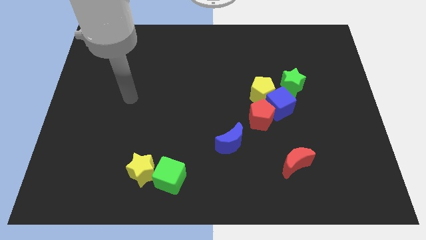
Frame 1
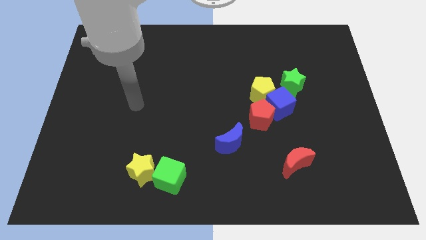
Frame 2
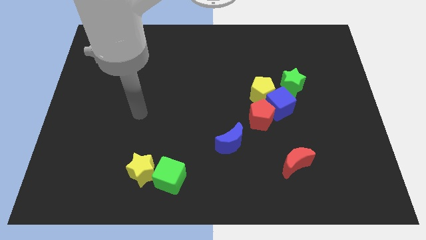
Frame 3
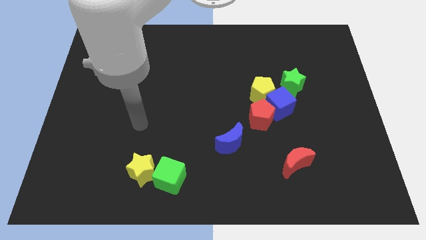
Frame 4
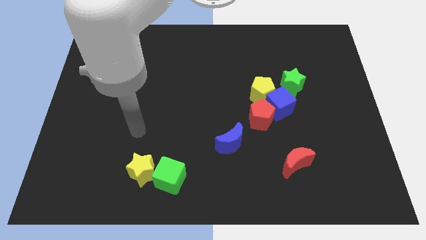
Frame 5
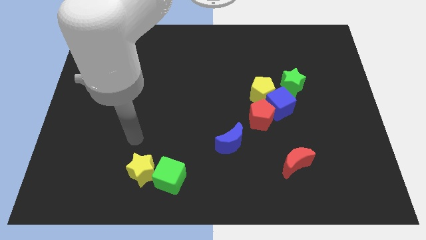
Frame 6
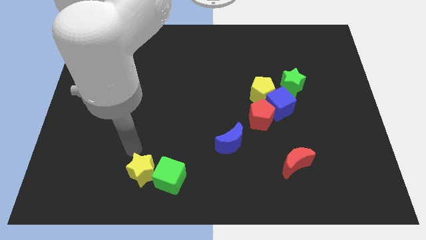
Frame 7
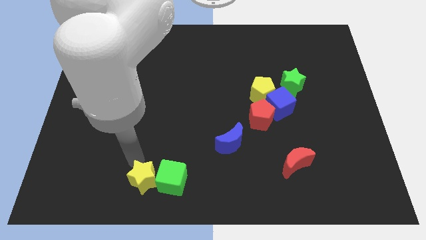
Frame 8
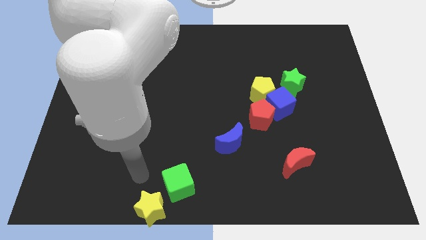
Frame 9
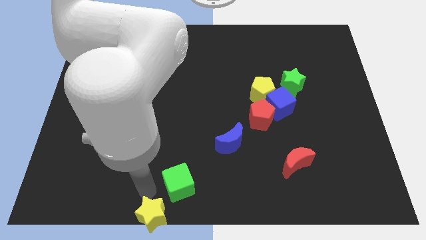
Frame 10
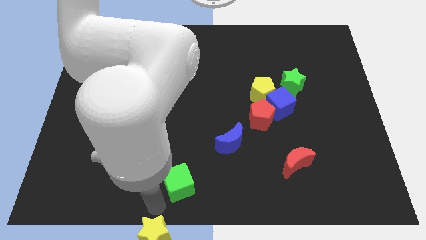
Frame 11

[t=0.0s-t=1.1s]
move the green cube away from the yellow star

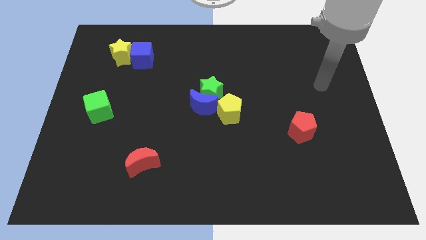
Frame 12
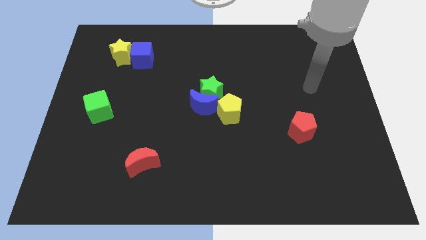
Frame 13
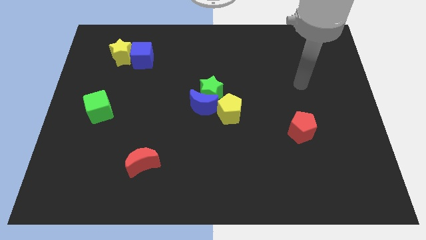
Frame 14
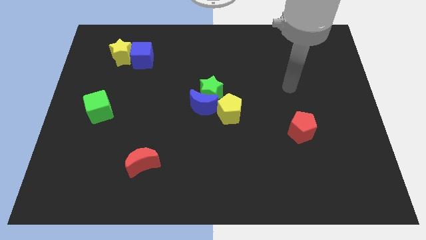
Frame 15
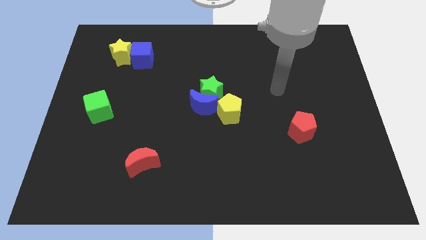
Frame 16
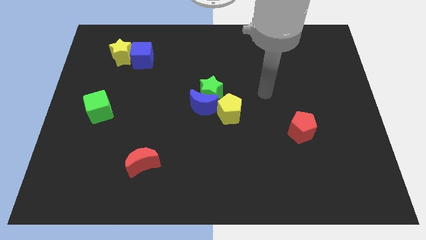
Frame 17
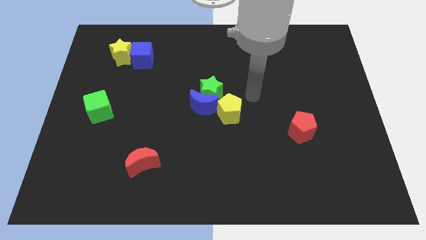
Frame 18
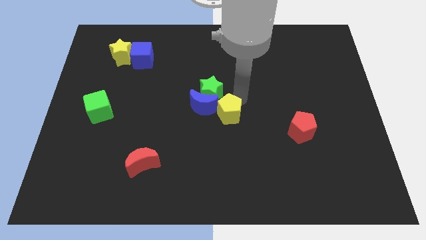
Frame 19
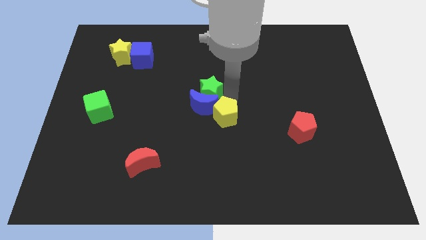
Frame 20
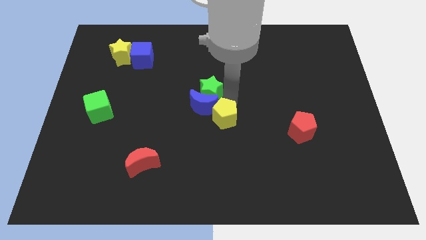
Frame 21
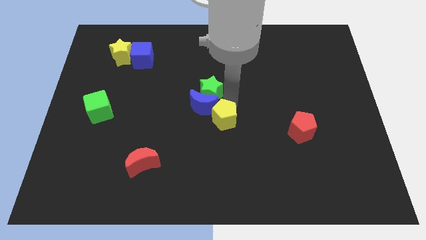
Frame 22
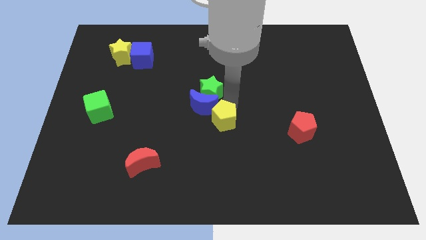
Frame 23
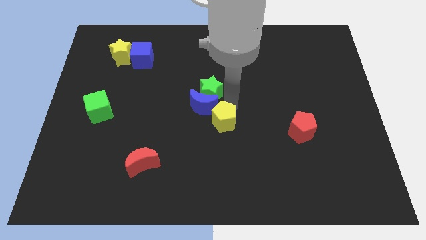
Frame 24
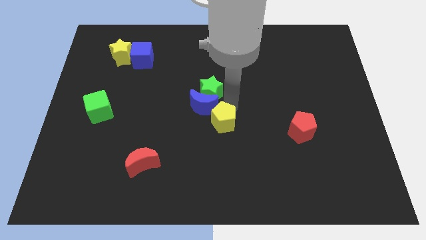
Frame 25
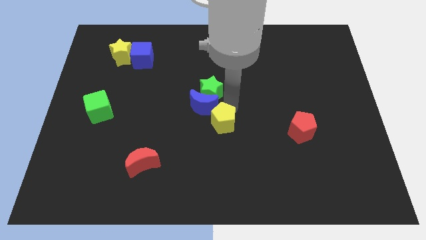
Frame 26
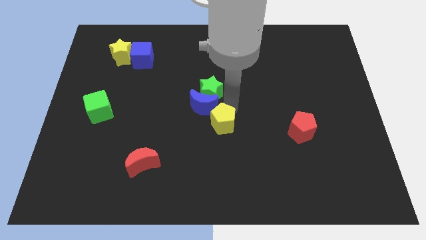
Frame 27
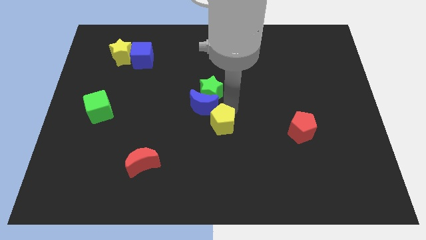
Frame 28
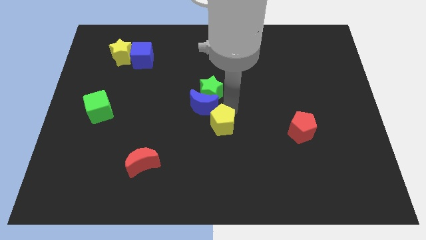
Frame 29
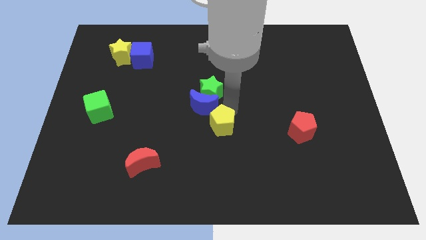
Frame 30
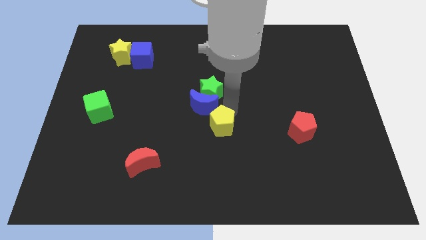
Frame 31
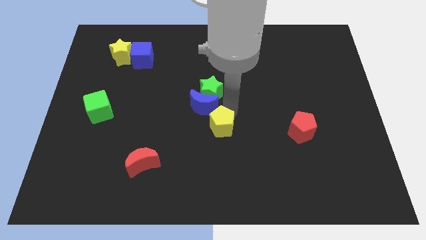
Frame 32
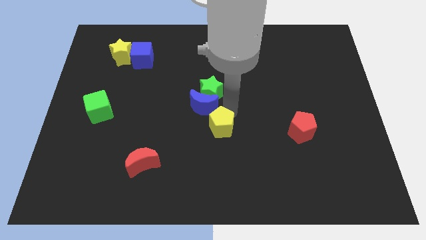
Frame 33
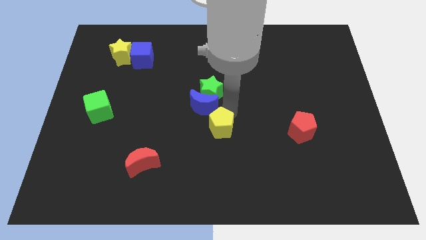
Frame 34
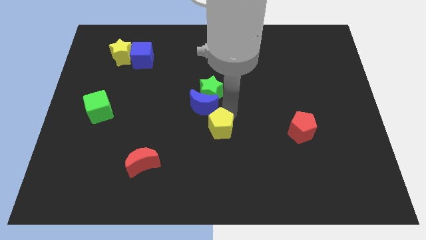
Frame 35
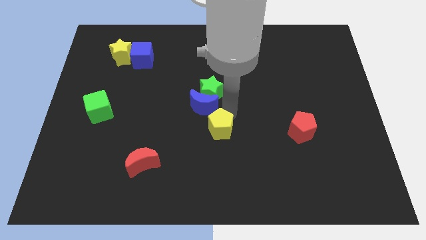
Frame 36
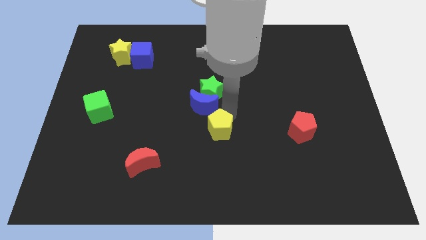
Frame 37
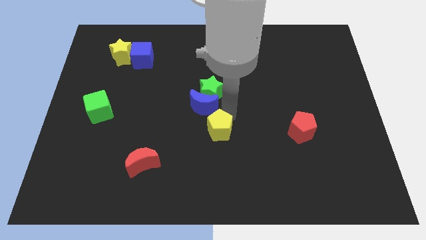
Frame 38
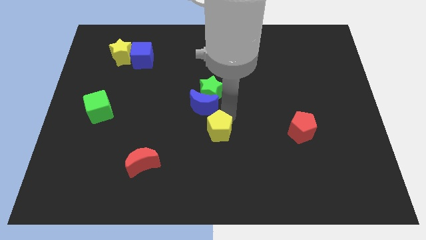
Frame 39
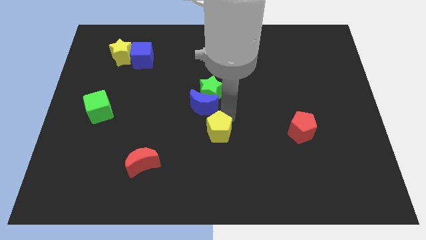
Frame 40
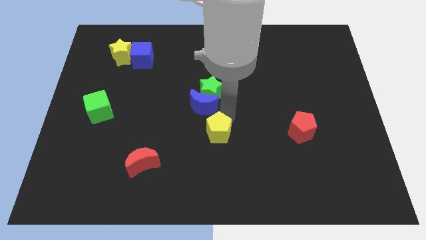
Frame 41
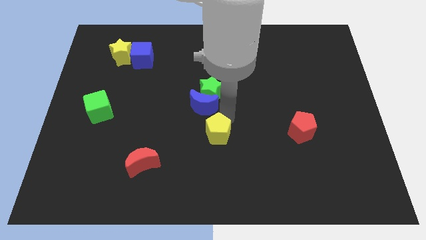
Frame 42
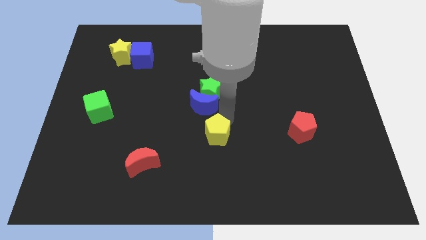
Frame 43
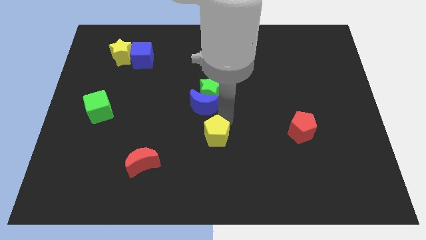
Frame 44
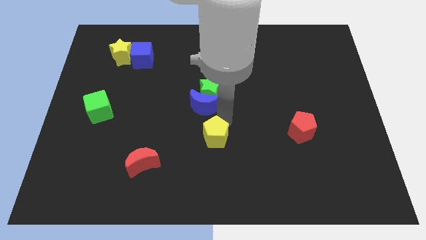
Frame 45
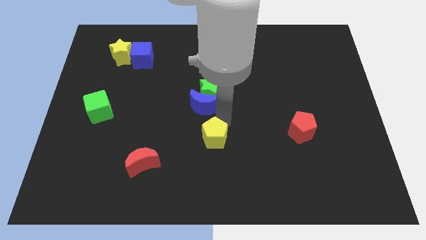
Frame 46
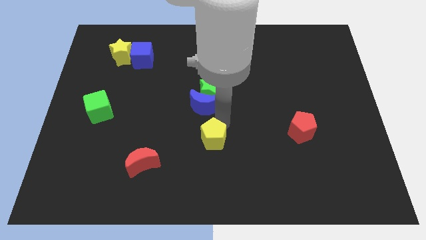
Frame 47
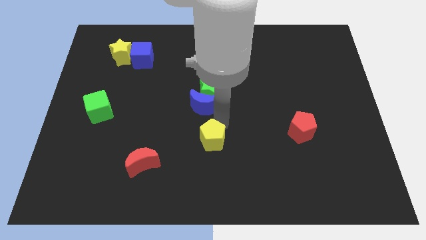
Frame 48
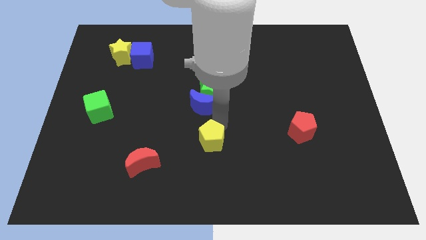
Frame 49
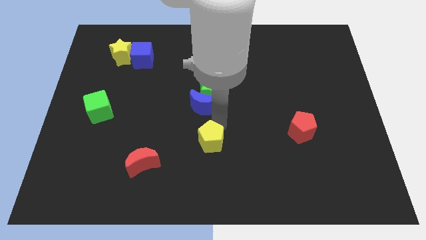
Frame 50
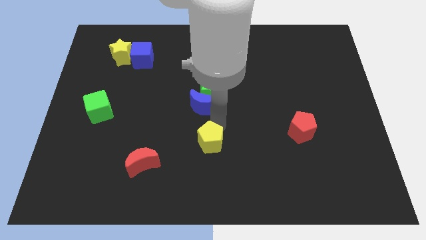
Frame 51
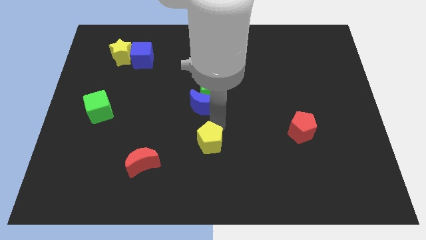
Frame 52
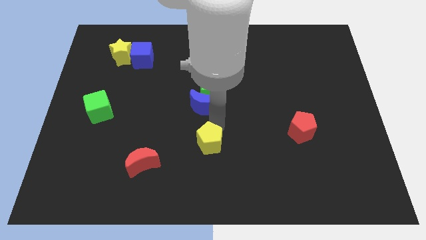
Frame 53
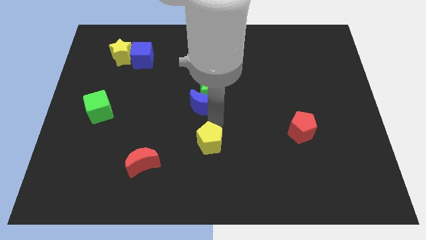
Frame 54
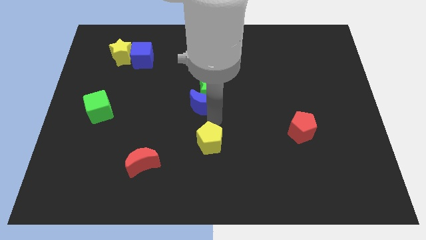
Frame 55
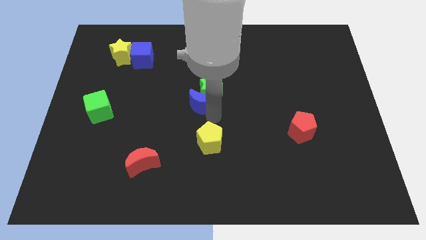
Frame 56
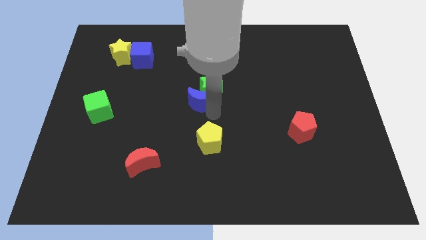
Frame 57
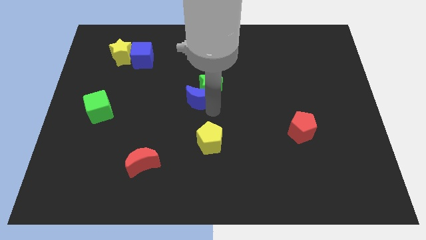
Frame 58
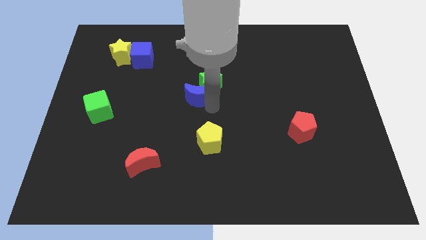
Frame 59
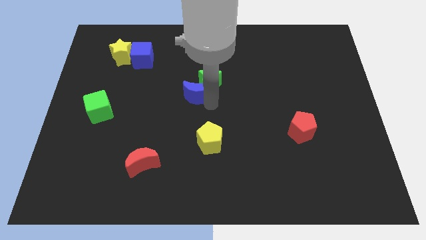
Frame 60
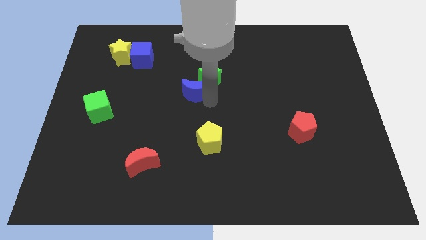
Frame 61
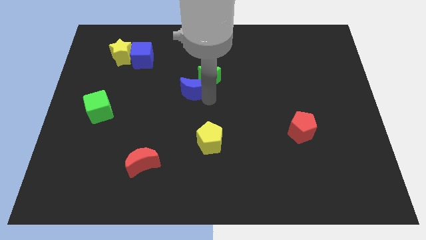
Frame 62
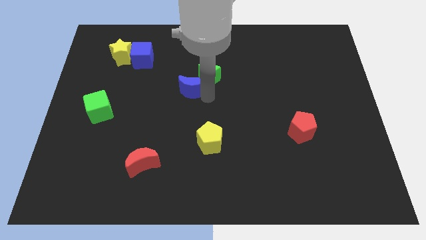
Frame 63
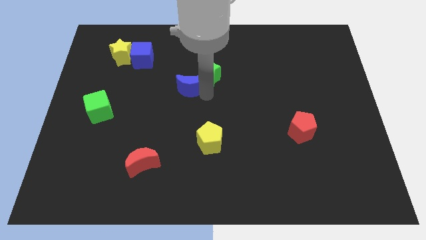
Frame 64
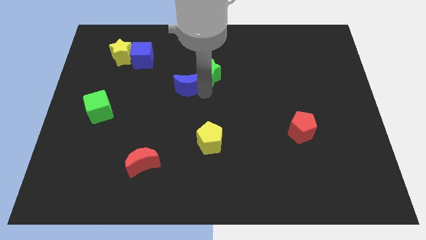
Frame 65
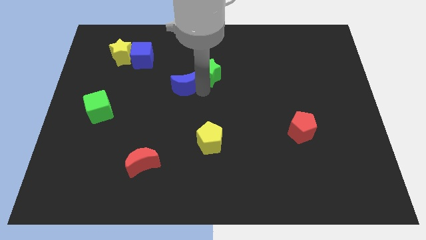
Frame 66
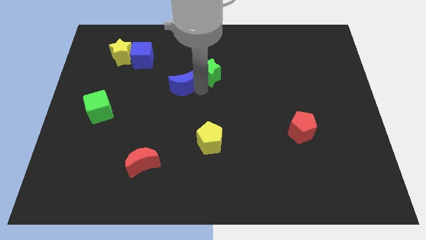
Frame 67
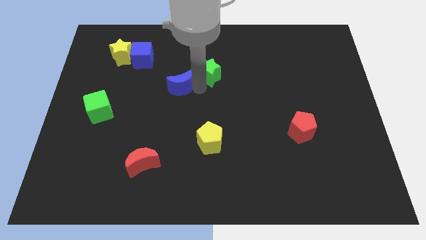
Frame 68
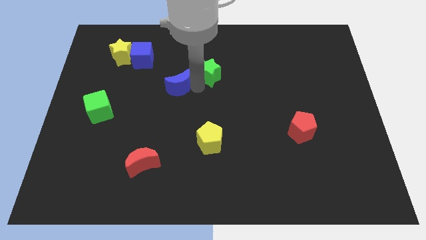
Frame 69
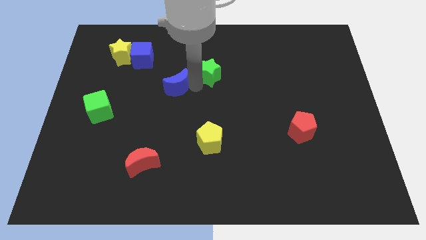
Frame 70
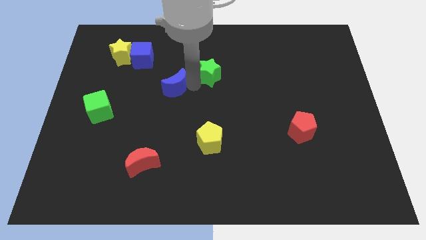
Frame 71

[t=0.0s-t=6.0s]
pull the blue moon apart from the green star and yellow pentagon

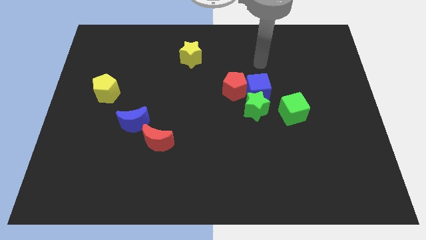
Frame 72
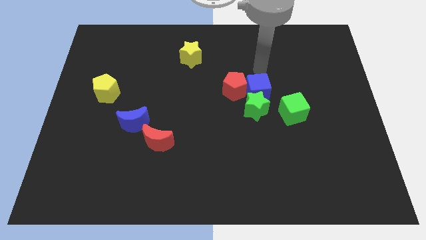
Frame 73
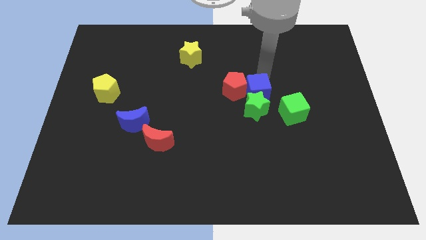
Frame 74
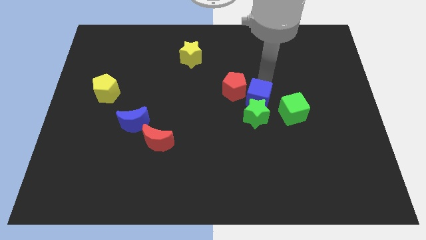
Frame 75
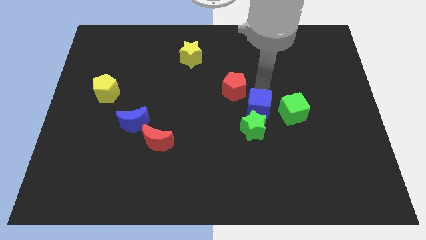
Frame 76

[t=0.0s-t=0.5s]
pull the red pentagon apart from the blue cube and green star

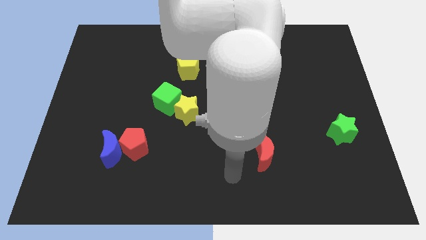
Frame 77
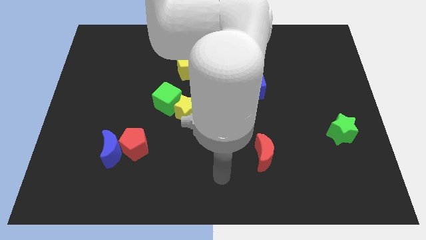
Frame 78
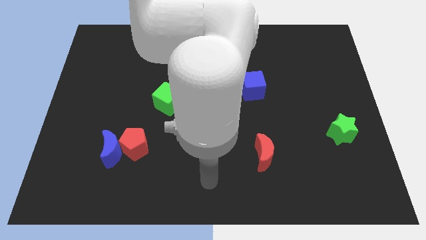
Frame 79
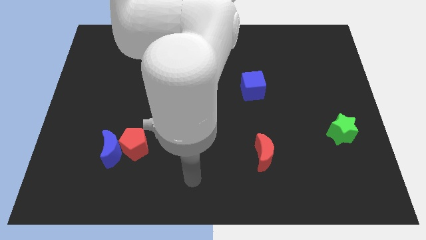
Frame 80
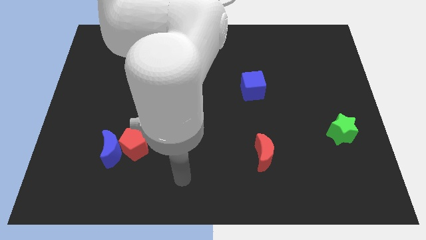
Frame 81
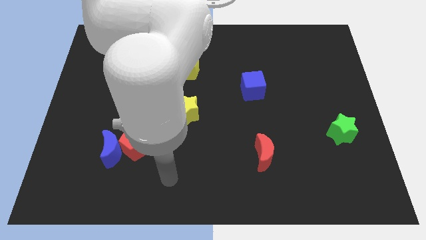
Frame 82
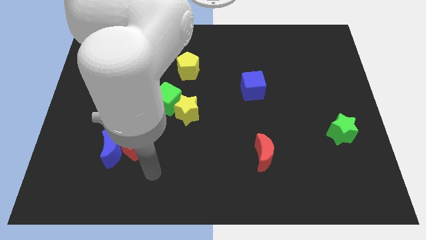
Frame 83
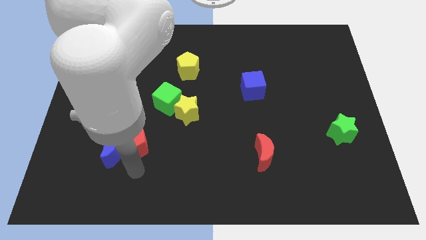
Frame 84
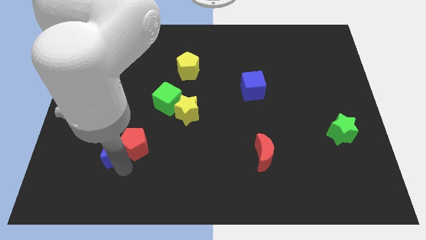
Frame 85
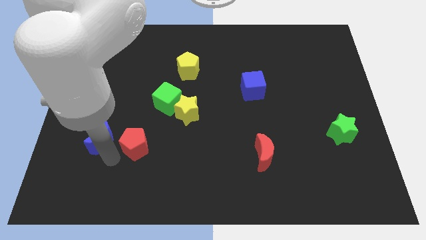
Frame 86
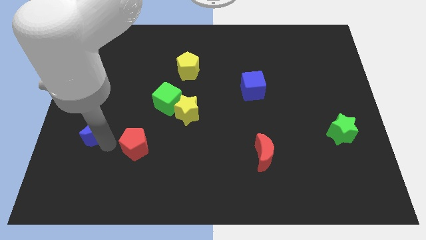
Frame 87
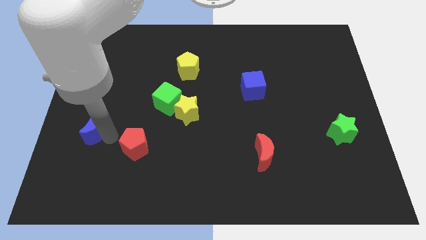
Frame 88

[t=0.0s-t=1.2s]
move the red pentagon away from the blue moon

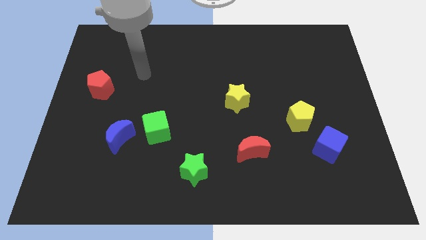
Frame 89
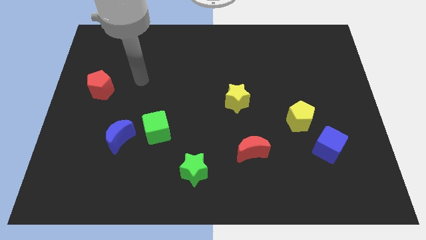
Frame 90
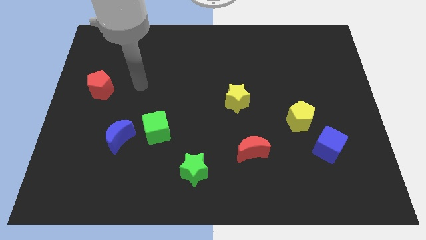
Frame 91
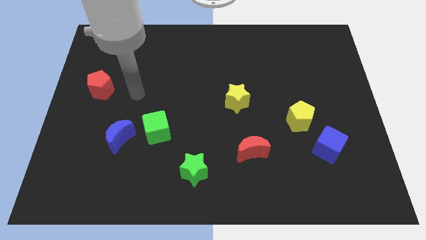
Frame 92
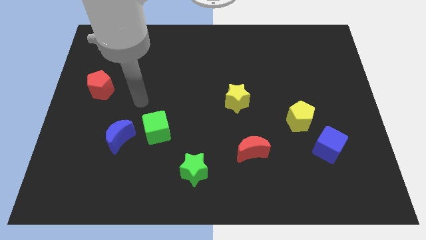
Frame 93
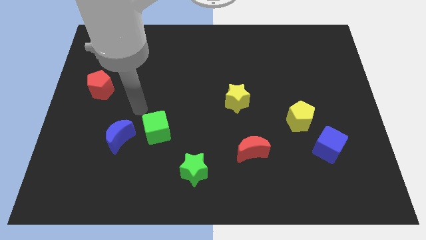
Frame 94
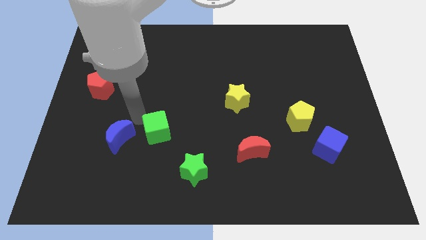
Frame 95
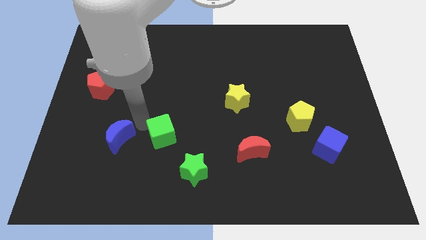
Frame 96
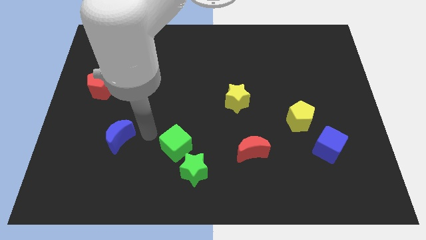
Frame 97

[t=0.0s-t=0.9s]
pull the blue moon apart from the green cube
